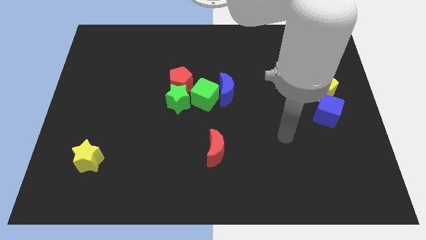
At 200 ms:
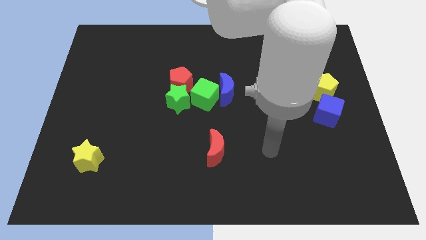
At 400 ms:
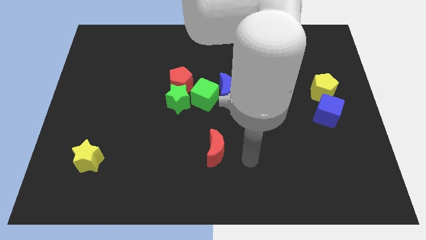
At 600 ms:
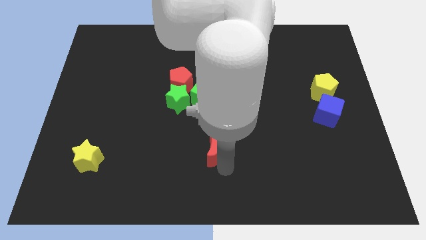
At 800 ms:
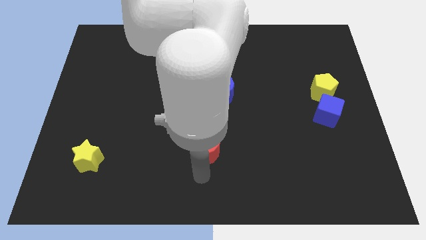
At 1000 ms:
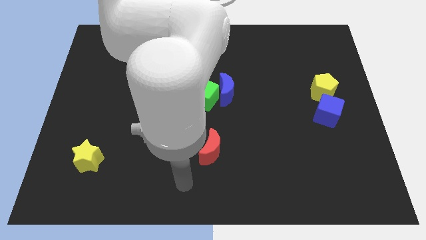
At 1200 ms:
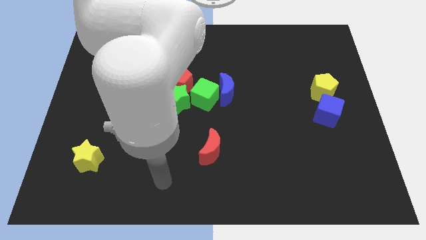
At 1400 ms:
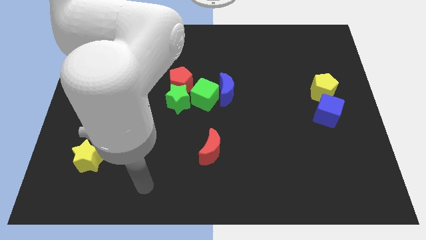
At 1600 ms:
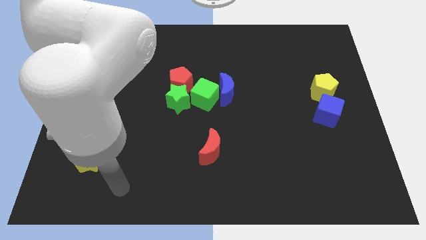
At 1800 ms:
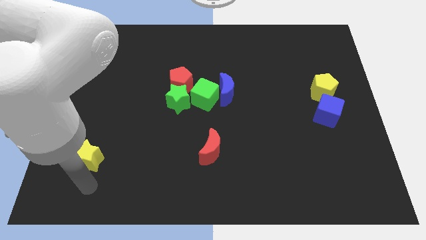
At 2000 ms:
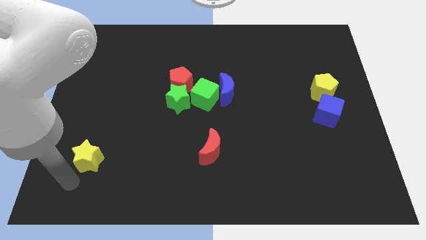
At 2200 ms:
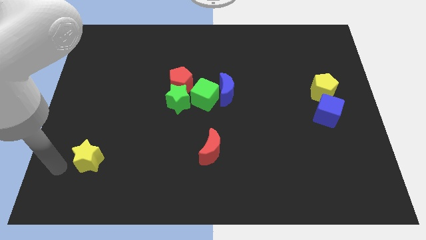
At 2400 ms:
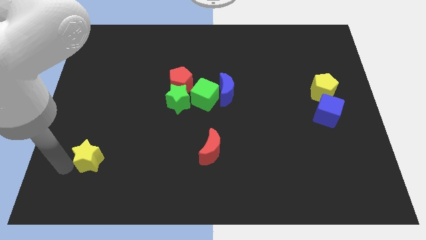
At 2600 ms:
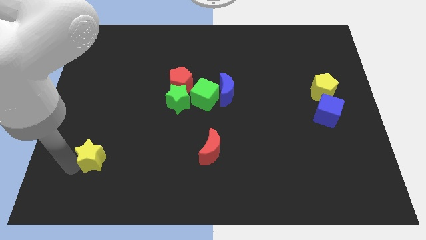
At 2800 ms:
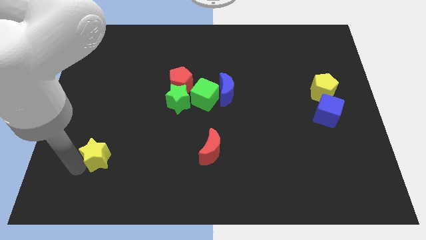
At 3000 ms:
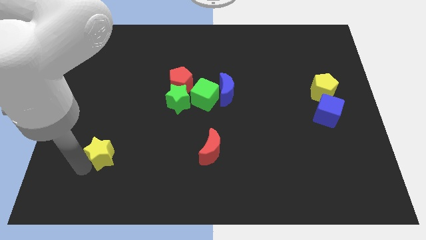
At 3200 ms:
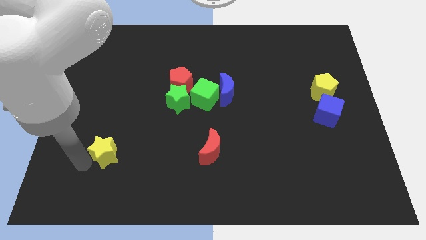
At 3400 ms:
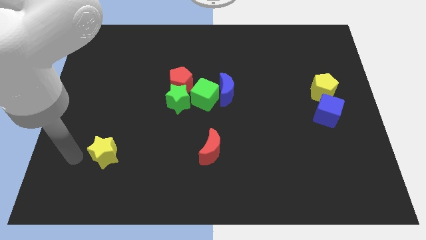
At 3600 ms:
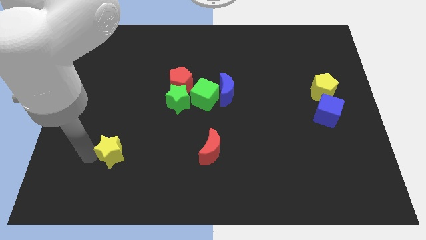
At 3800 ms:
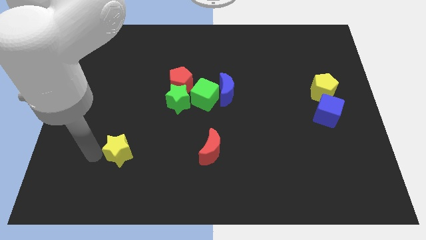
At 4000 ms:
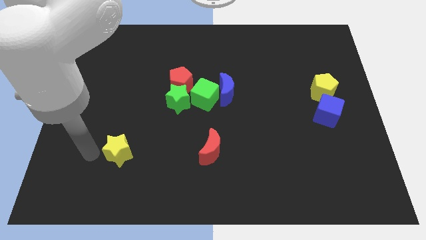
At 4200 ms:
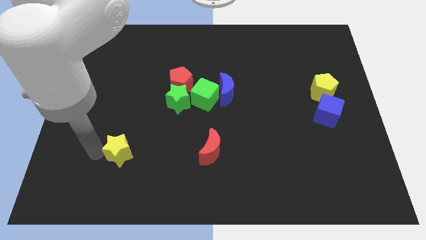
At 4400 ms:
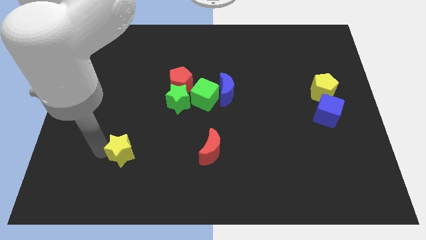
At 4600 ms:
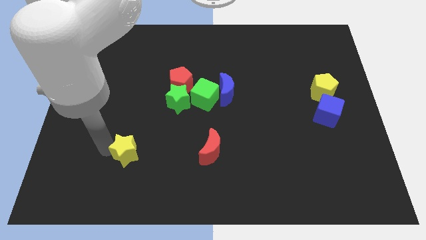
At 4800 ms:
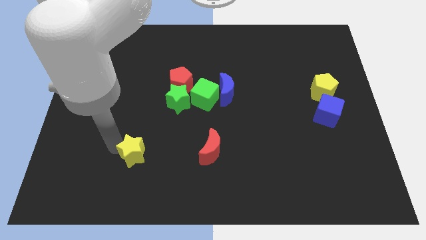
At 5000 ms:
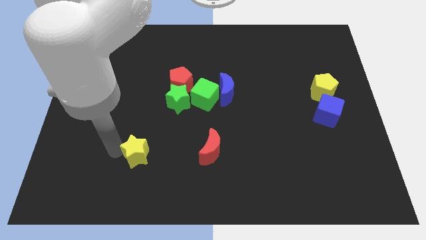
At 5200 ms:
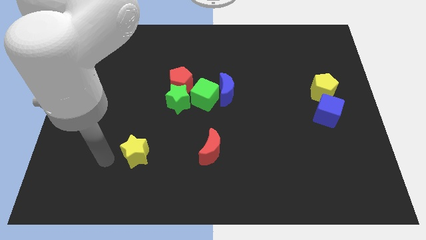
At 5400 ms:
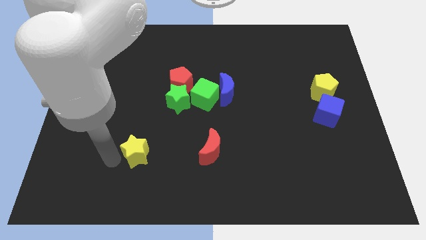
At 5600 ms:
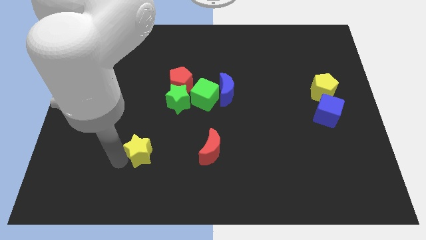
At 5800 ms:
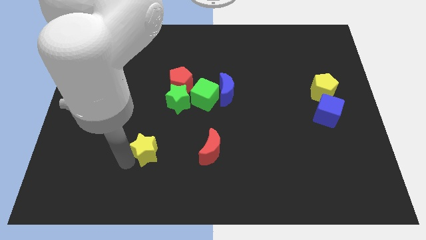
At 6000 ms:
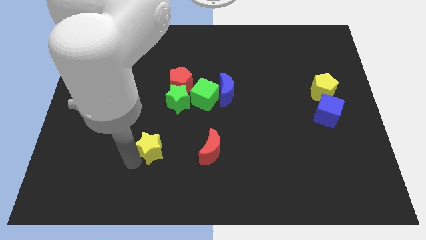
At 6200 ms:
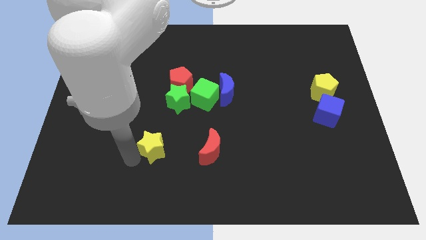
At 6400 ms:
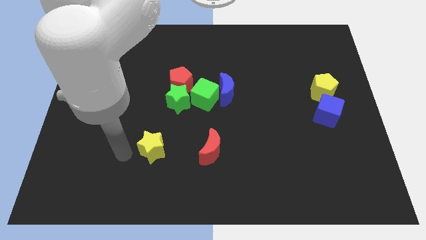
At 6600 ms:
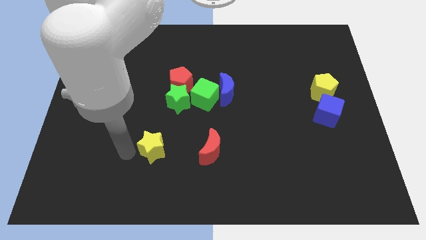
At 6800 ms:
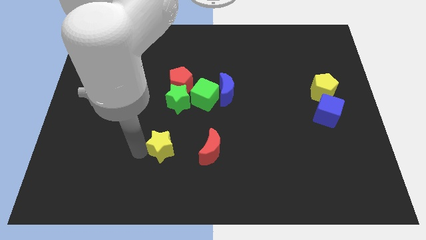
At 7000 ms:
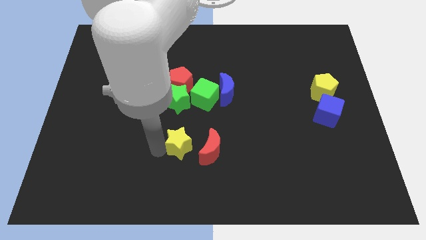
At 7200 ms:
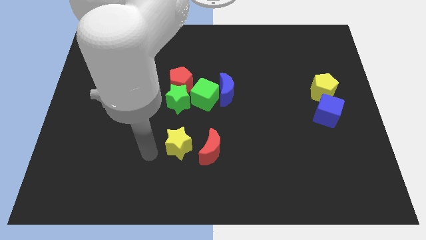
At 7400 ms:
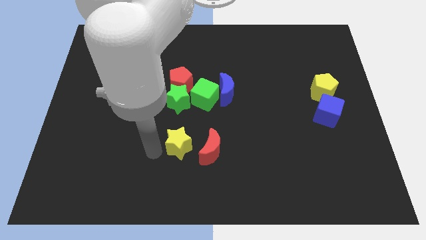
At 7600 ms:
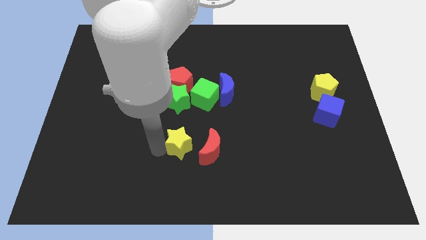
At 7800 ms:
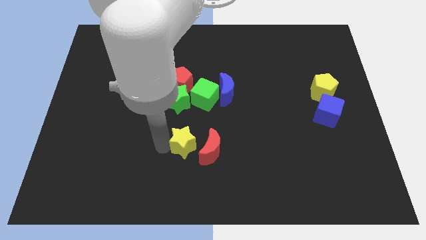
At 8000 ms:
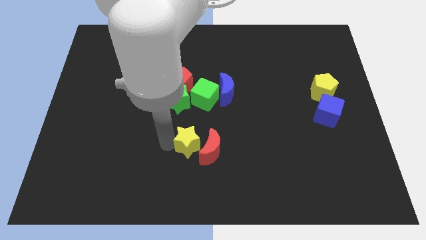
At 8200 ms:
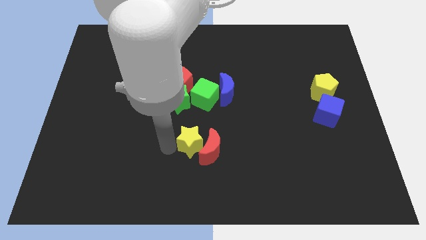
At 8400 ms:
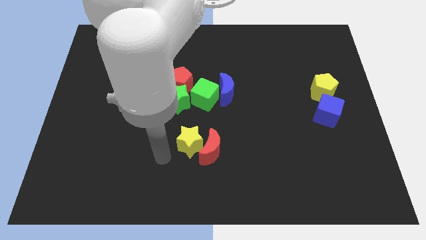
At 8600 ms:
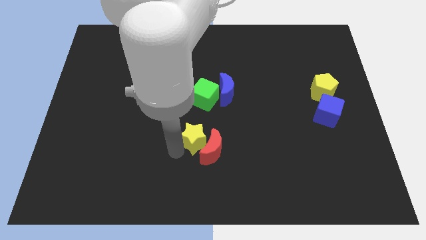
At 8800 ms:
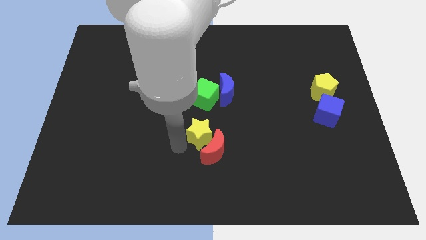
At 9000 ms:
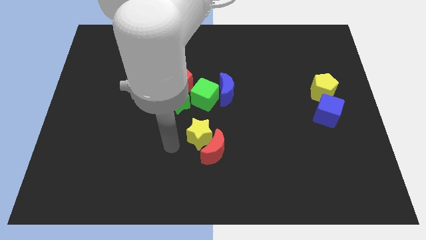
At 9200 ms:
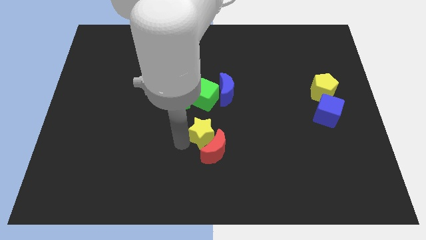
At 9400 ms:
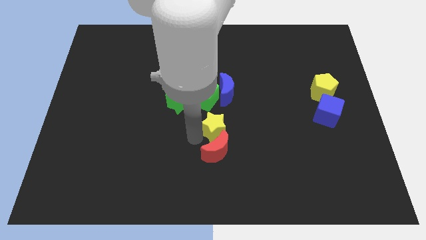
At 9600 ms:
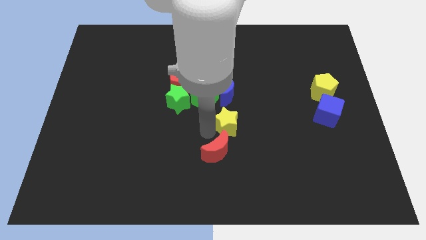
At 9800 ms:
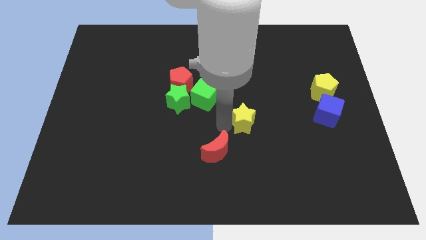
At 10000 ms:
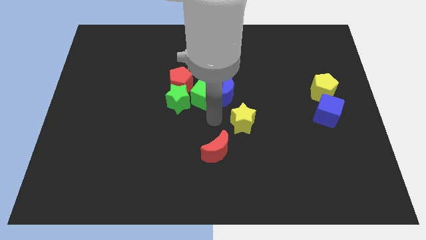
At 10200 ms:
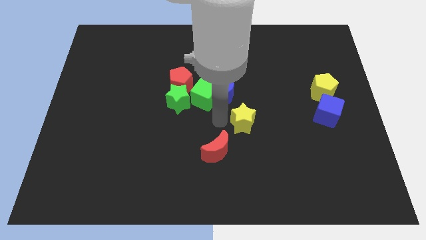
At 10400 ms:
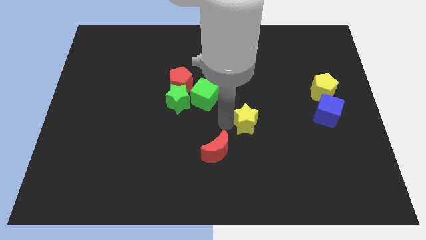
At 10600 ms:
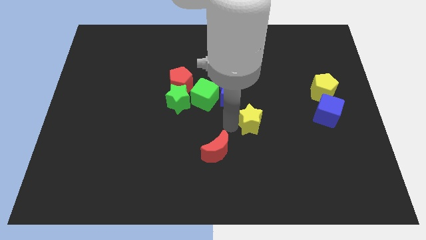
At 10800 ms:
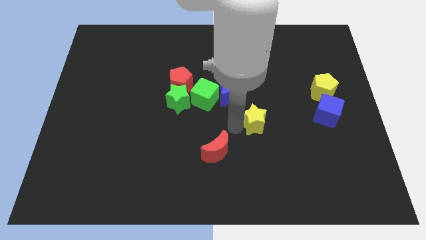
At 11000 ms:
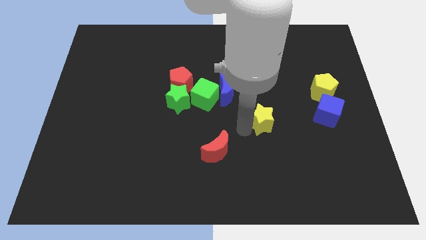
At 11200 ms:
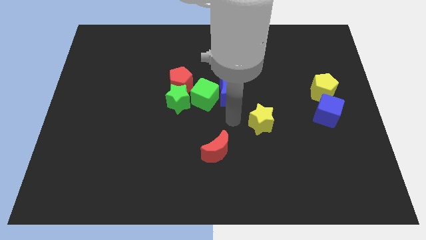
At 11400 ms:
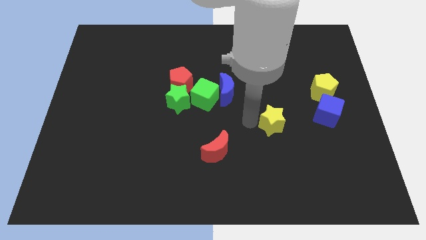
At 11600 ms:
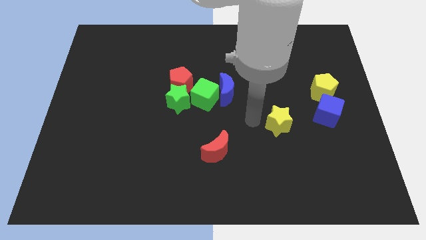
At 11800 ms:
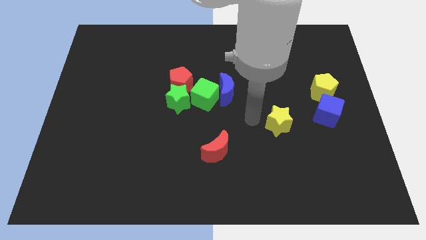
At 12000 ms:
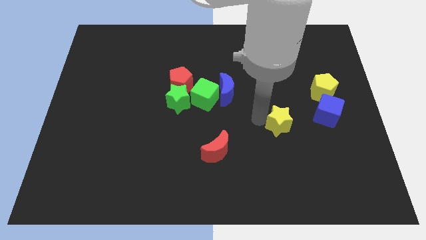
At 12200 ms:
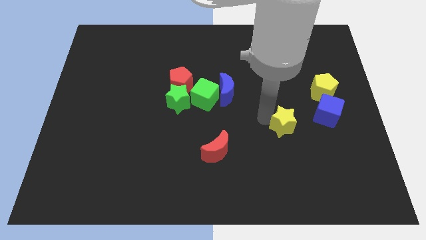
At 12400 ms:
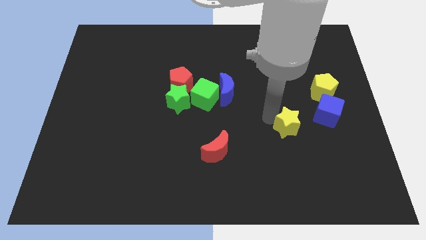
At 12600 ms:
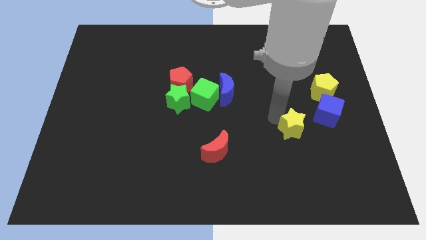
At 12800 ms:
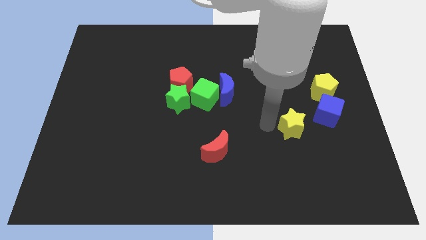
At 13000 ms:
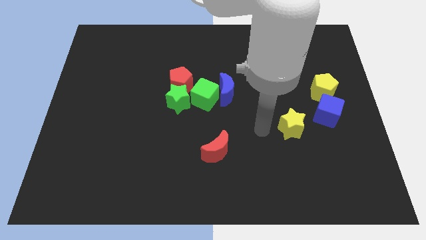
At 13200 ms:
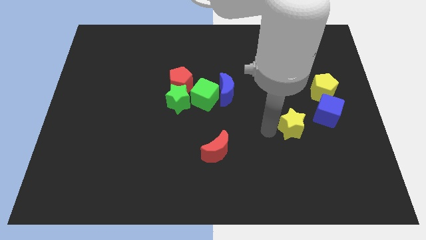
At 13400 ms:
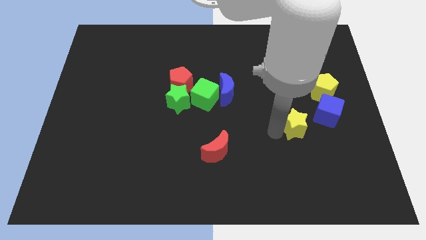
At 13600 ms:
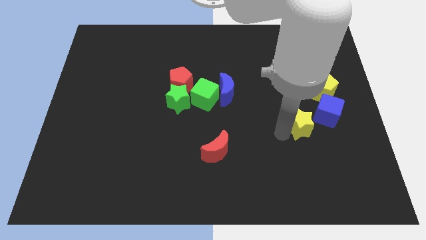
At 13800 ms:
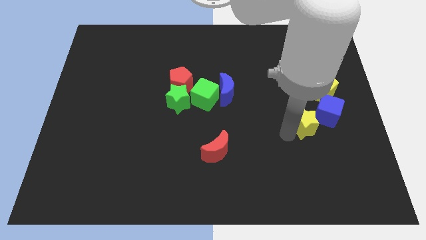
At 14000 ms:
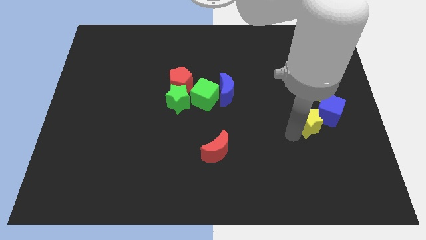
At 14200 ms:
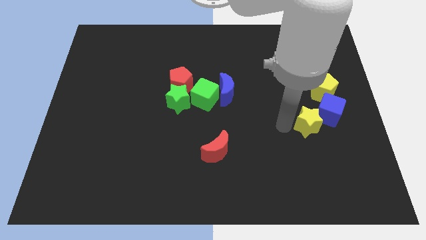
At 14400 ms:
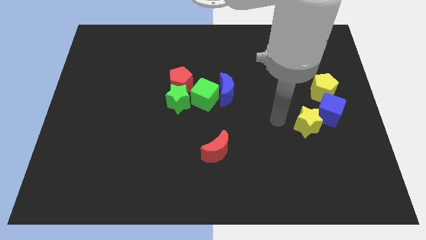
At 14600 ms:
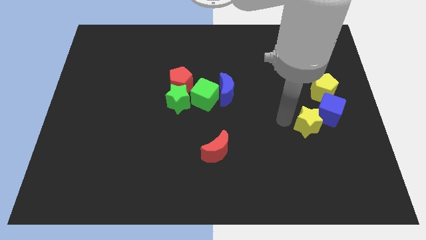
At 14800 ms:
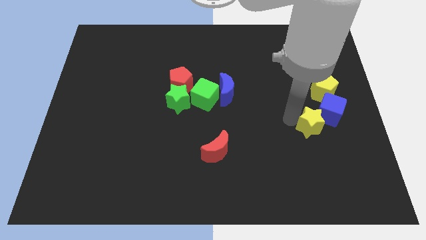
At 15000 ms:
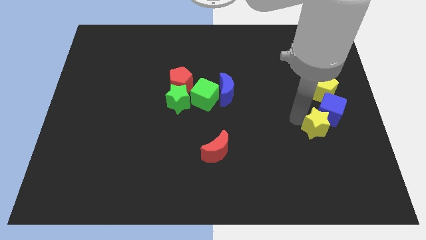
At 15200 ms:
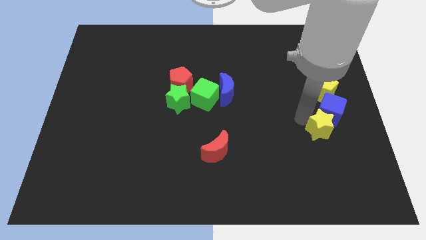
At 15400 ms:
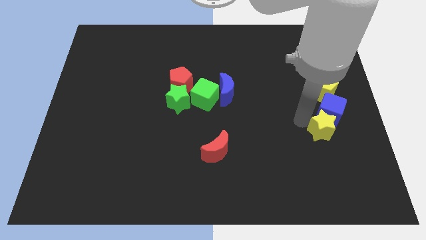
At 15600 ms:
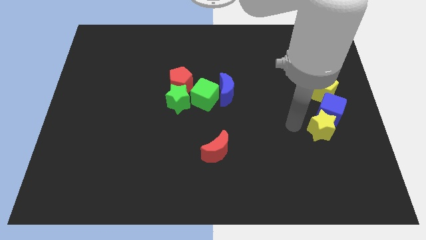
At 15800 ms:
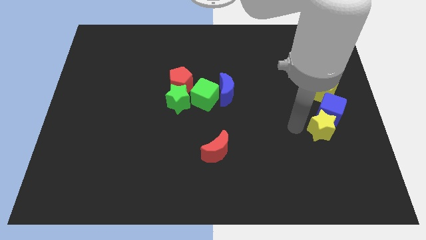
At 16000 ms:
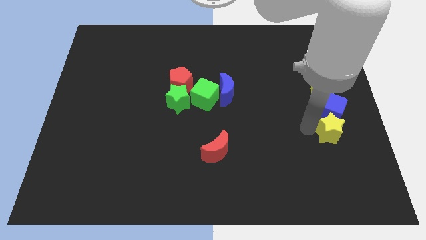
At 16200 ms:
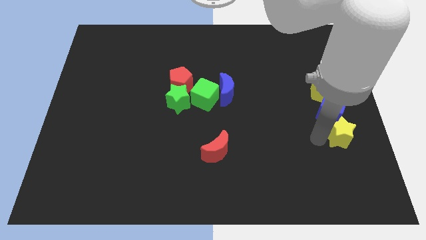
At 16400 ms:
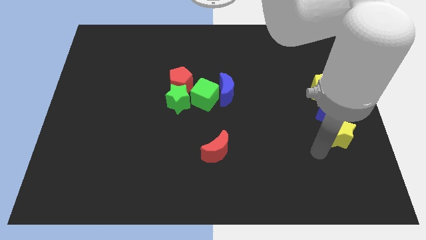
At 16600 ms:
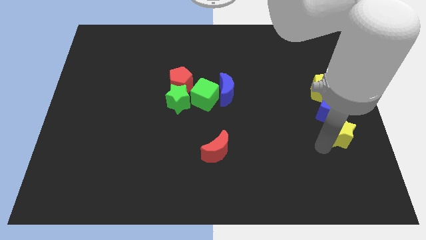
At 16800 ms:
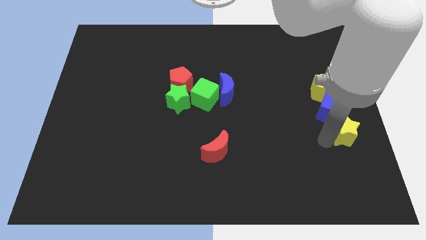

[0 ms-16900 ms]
put the yellow star to the right side of the board
